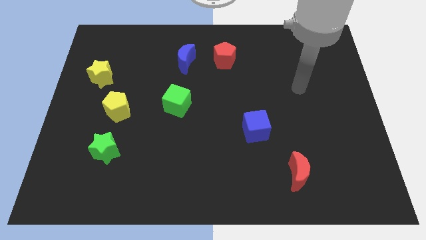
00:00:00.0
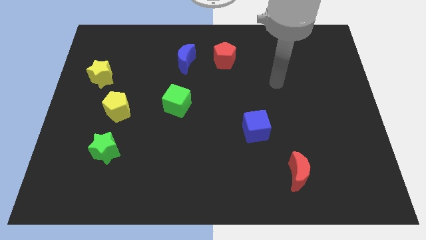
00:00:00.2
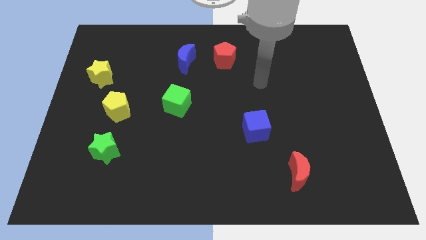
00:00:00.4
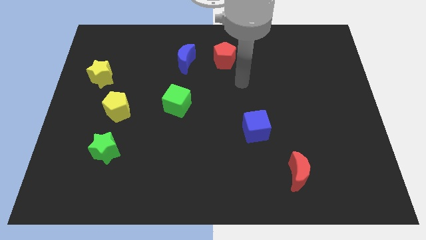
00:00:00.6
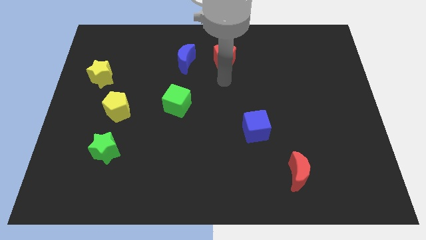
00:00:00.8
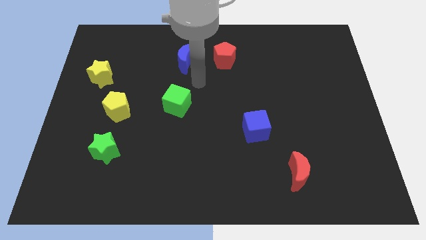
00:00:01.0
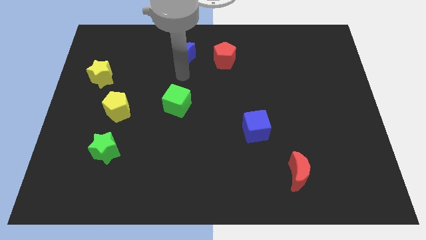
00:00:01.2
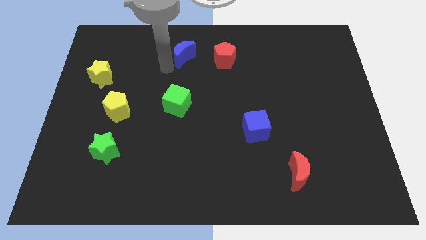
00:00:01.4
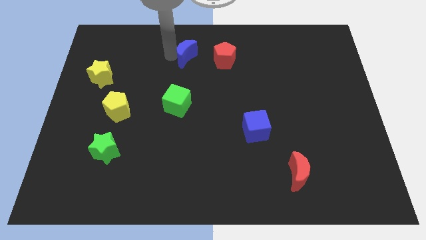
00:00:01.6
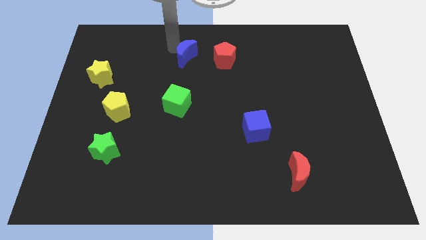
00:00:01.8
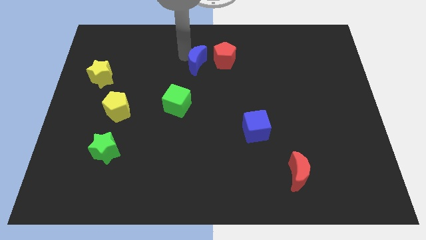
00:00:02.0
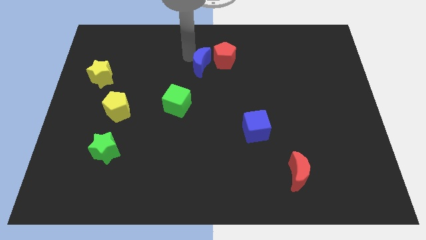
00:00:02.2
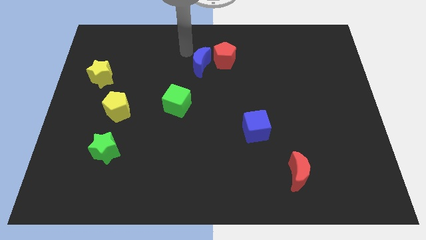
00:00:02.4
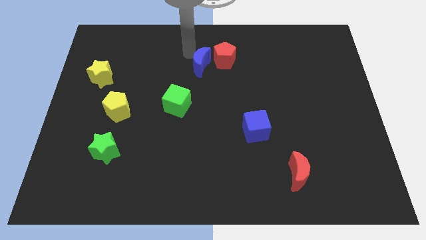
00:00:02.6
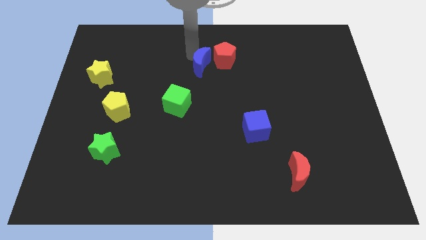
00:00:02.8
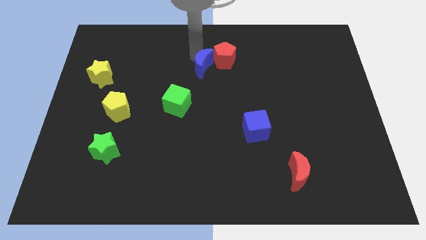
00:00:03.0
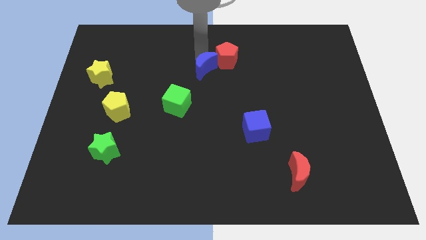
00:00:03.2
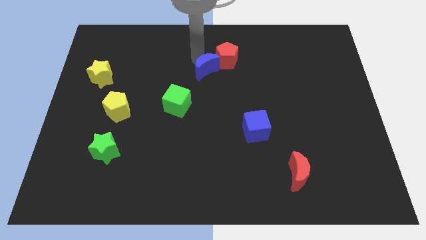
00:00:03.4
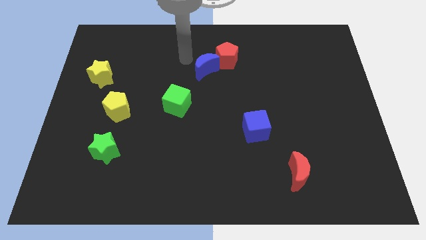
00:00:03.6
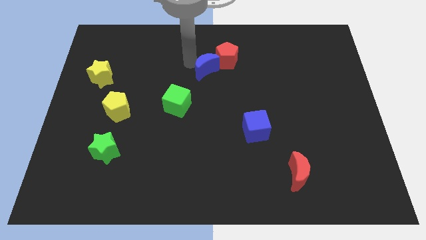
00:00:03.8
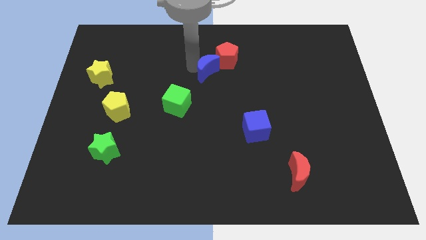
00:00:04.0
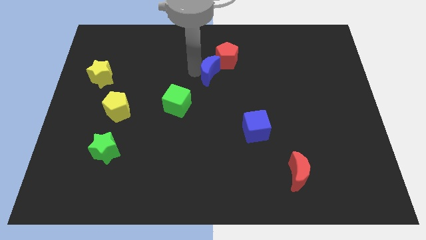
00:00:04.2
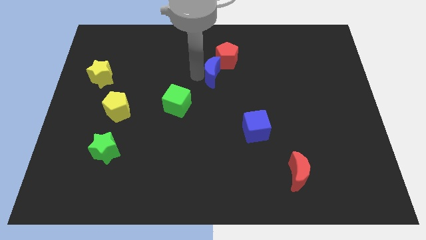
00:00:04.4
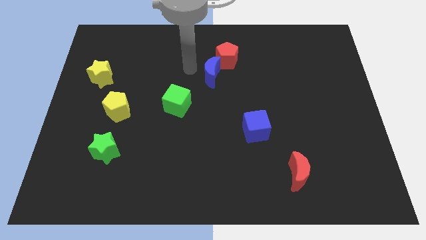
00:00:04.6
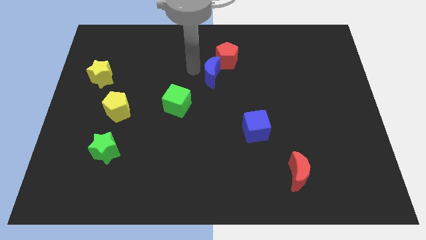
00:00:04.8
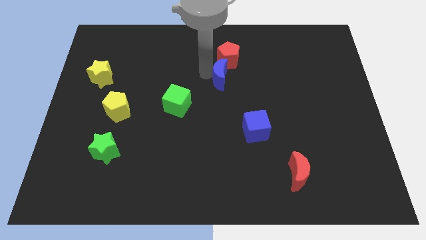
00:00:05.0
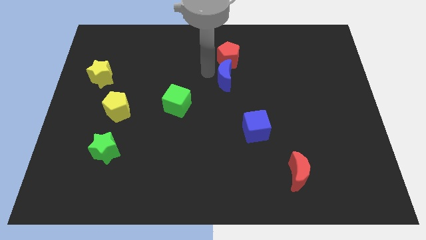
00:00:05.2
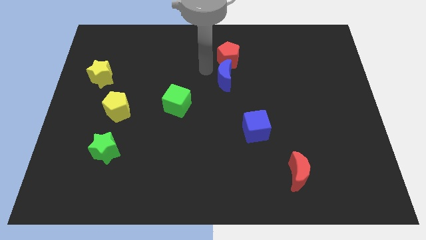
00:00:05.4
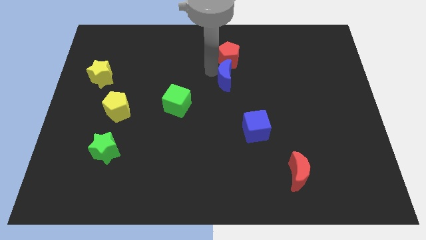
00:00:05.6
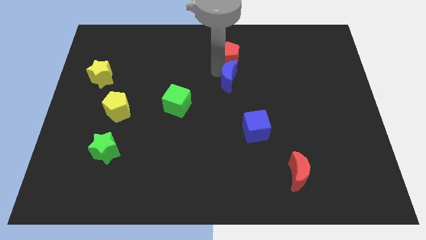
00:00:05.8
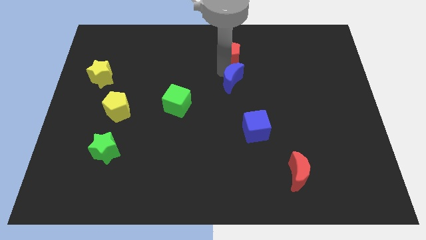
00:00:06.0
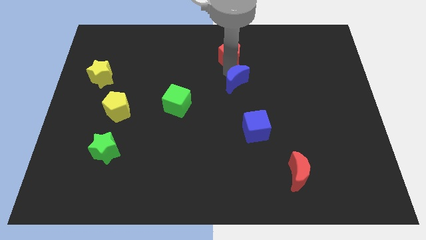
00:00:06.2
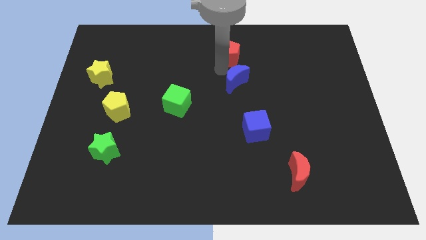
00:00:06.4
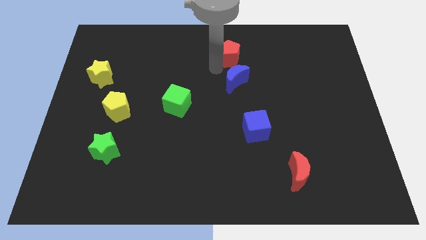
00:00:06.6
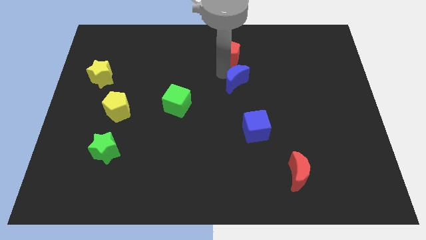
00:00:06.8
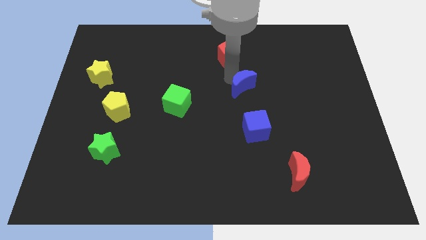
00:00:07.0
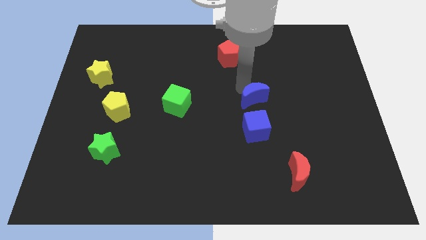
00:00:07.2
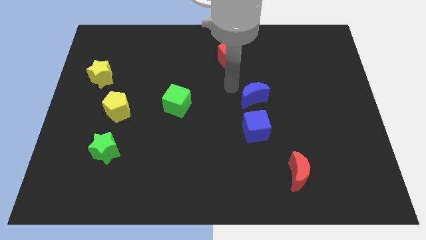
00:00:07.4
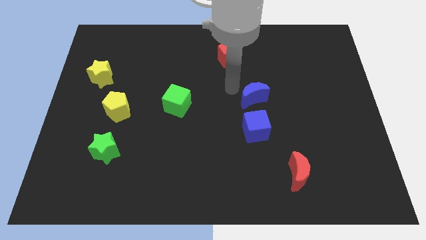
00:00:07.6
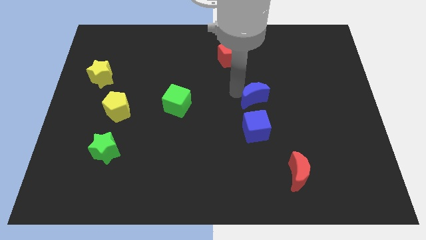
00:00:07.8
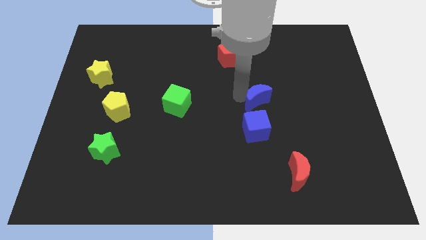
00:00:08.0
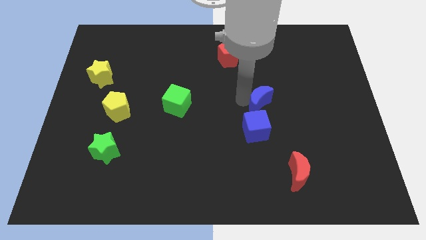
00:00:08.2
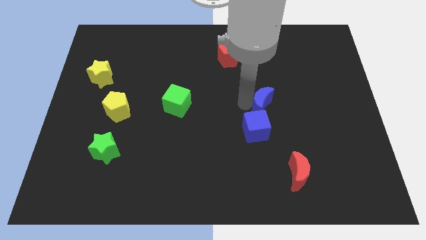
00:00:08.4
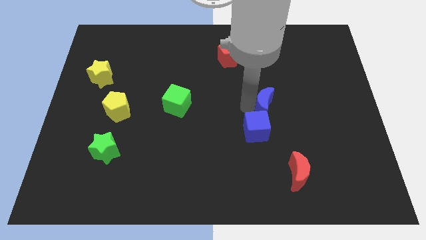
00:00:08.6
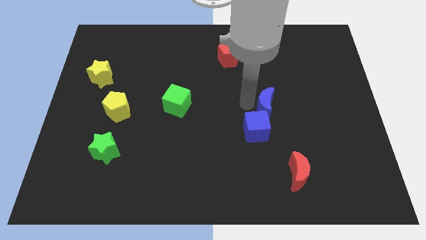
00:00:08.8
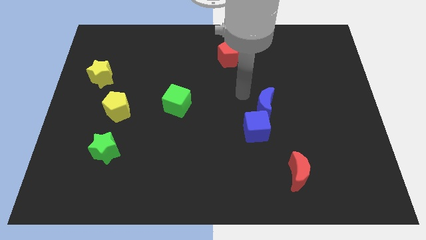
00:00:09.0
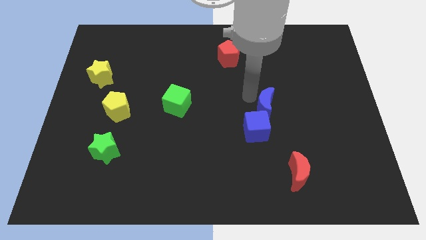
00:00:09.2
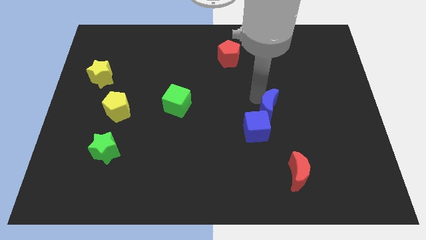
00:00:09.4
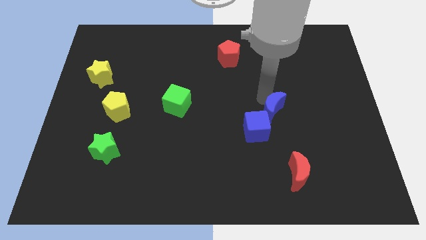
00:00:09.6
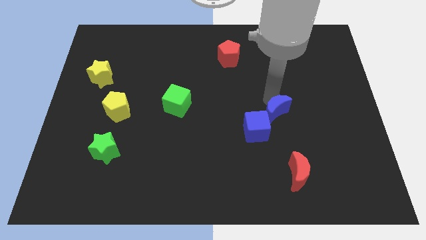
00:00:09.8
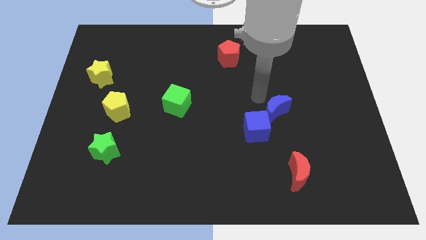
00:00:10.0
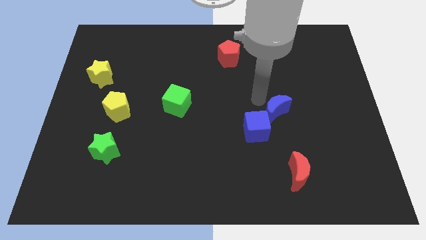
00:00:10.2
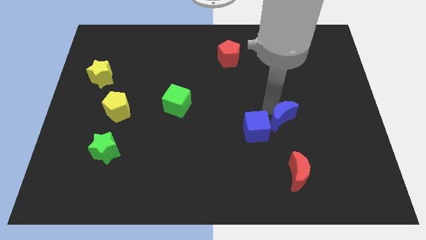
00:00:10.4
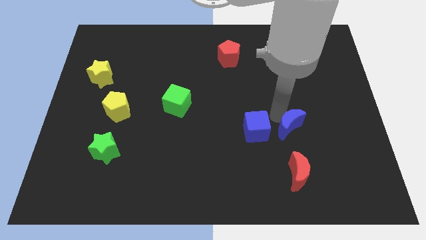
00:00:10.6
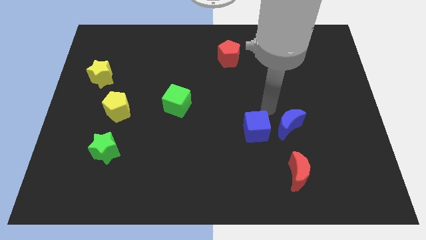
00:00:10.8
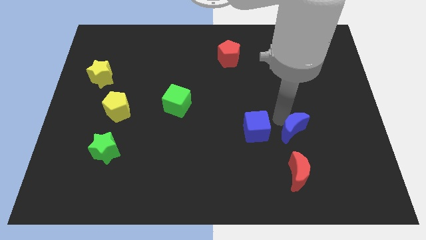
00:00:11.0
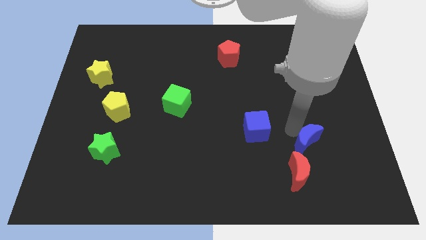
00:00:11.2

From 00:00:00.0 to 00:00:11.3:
move the blue moon to the top right of the red moon

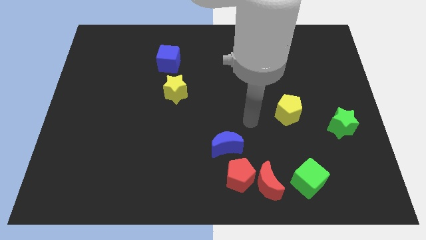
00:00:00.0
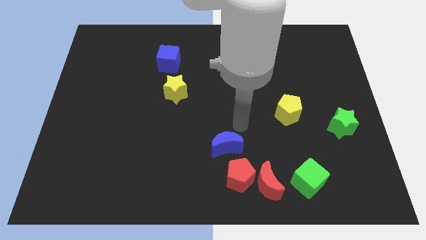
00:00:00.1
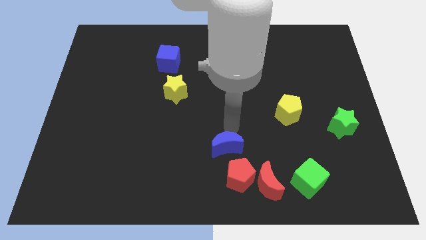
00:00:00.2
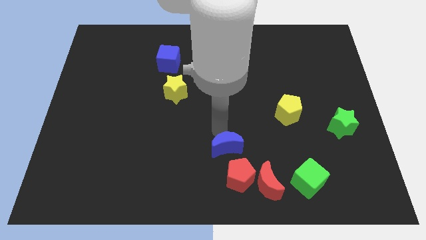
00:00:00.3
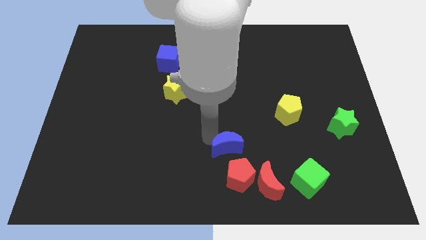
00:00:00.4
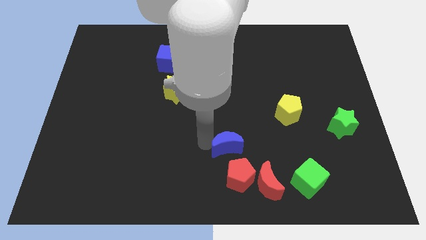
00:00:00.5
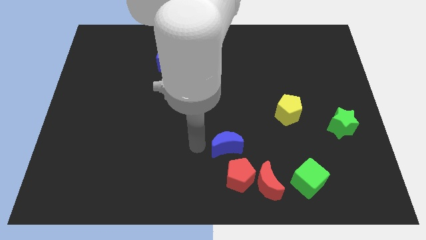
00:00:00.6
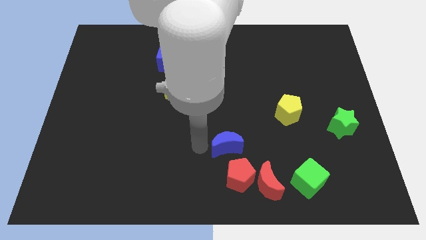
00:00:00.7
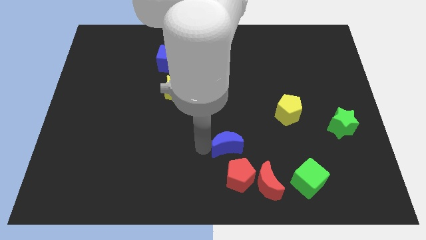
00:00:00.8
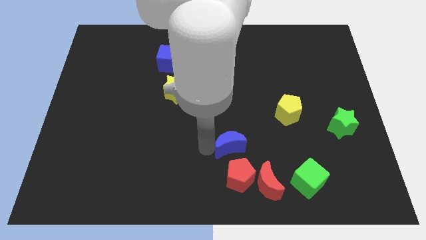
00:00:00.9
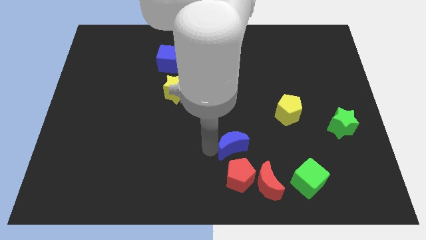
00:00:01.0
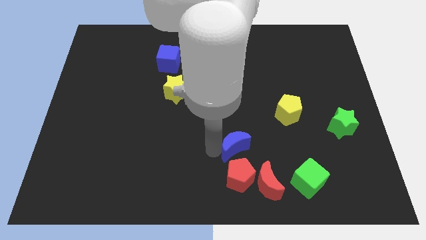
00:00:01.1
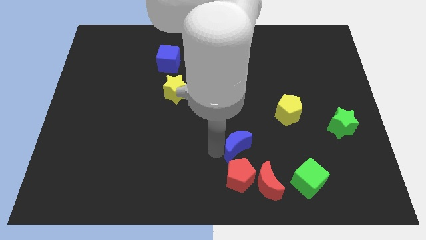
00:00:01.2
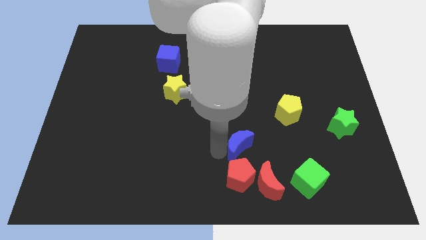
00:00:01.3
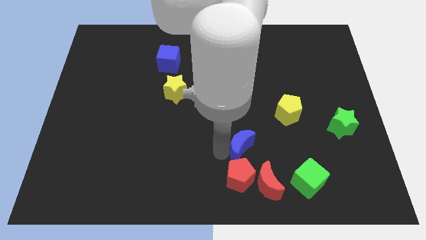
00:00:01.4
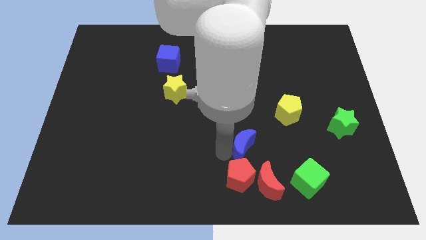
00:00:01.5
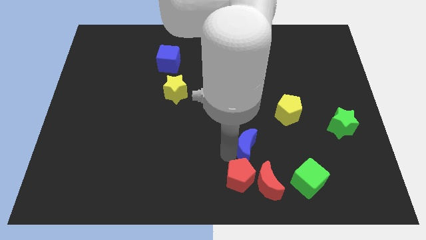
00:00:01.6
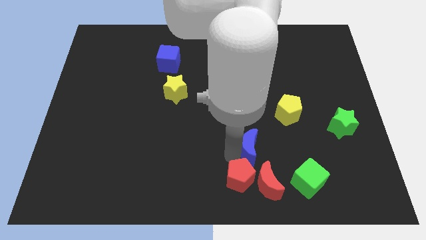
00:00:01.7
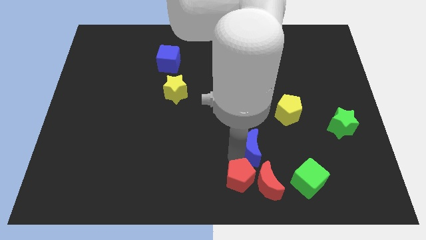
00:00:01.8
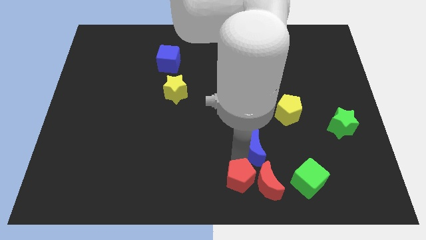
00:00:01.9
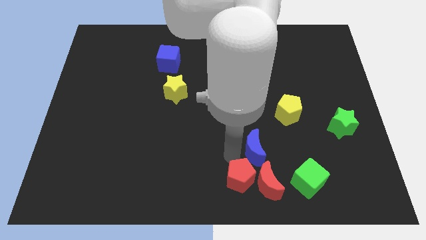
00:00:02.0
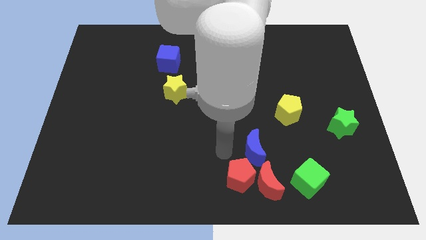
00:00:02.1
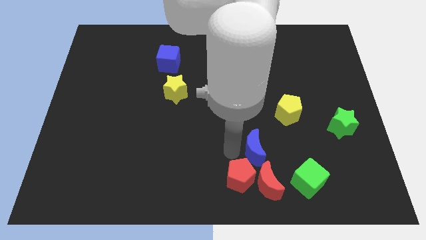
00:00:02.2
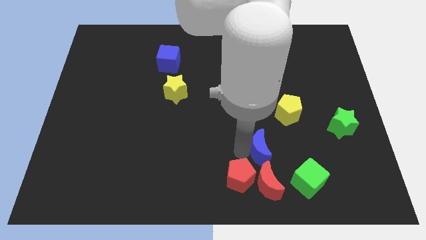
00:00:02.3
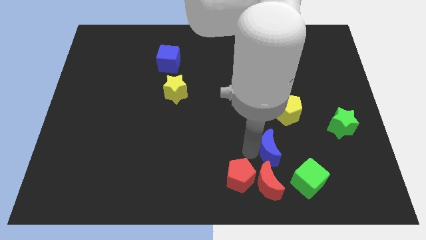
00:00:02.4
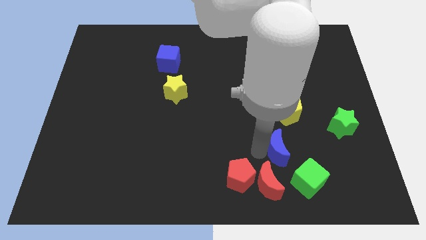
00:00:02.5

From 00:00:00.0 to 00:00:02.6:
put the blue moon to the bottom of the yellow pentagon
